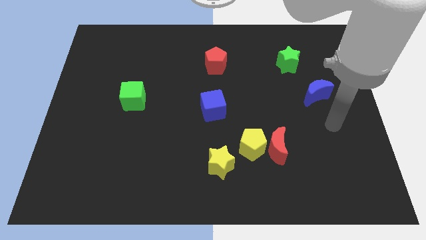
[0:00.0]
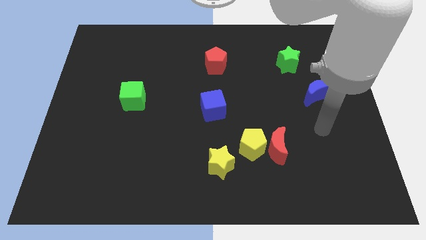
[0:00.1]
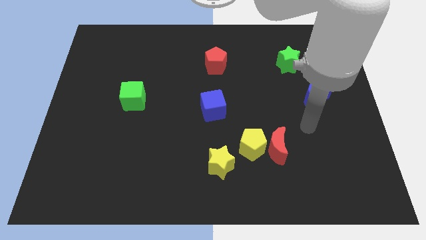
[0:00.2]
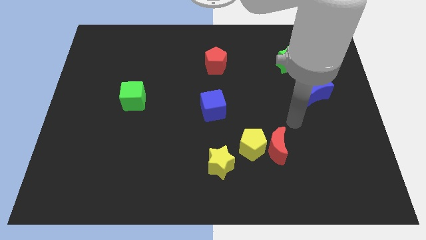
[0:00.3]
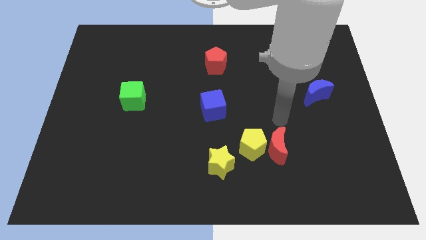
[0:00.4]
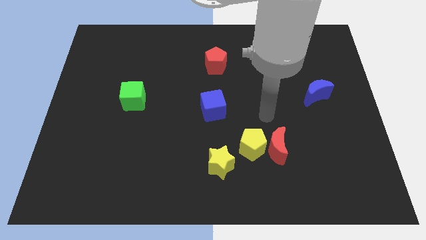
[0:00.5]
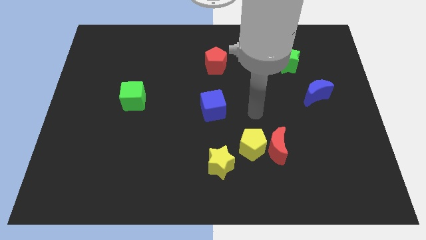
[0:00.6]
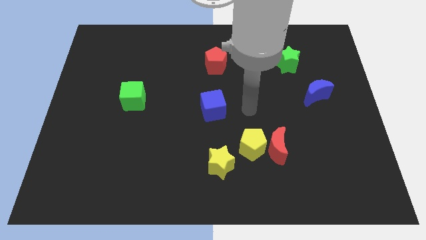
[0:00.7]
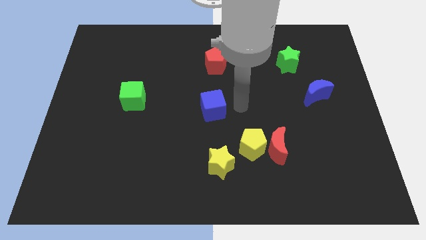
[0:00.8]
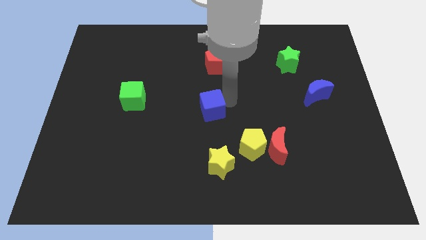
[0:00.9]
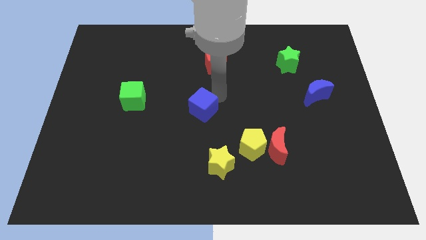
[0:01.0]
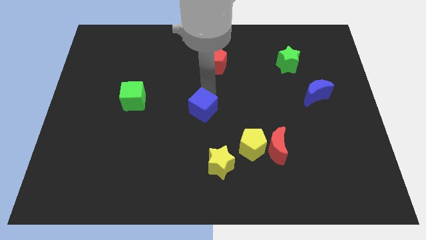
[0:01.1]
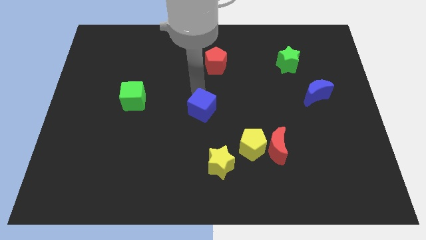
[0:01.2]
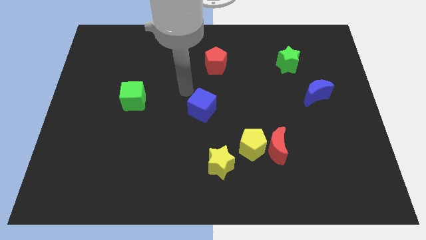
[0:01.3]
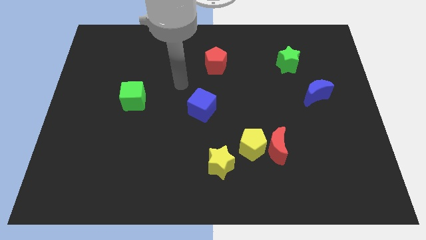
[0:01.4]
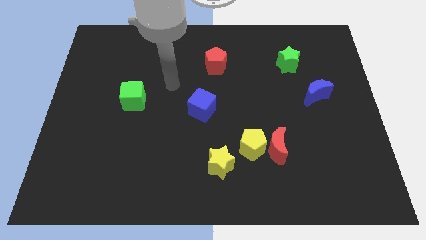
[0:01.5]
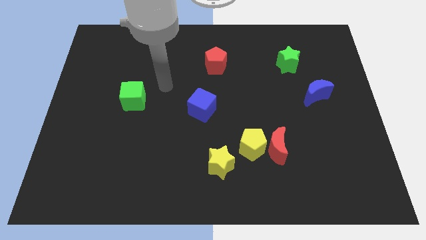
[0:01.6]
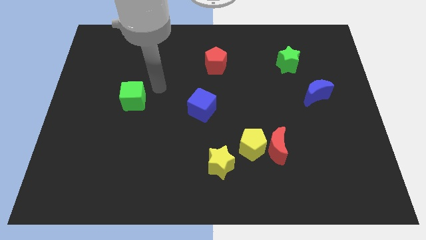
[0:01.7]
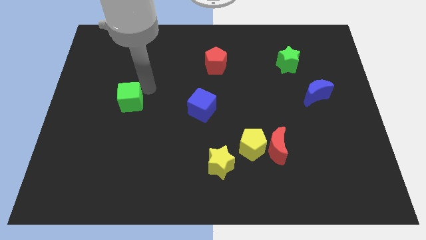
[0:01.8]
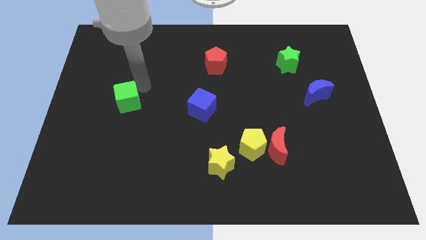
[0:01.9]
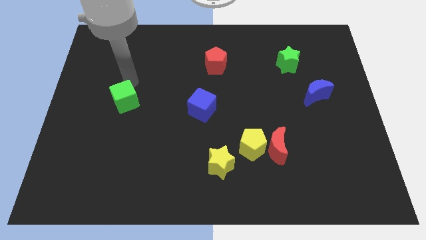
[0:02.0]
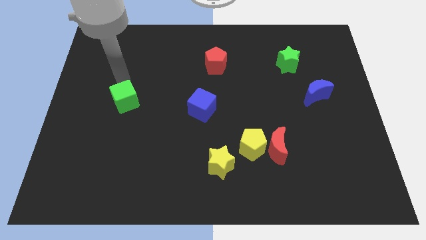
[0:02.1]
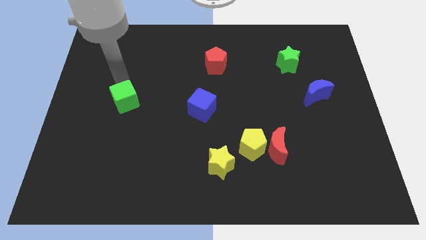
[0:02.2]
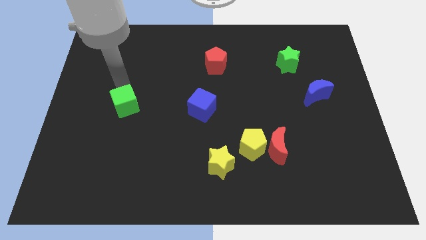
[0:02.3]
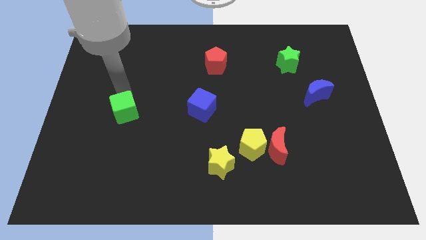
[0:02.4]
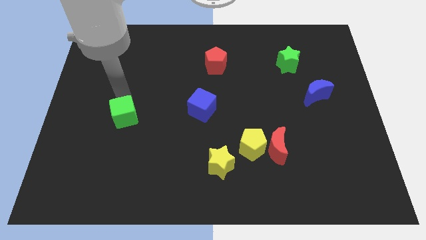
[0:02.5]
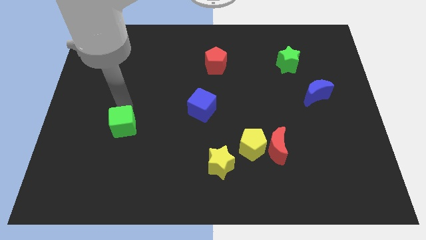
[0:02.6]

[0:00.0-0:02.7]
slide the green cube down somewhat

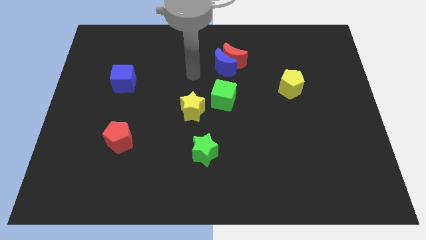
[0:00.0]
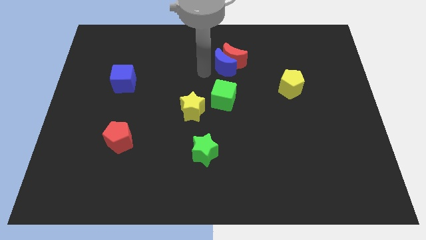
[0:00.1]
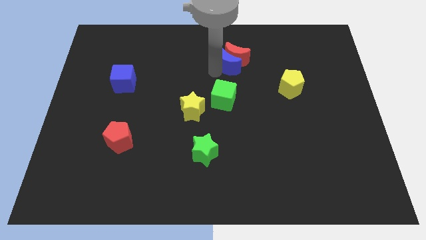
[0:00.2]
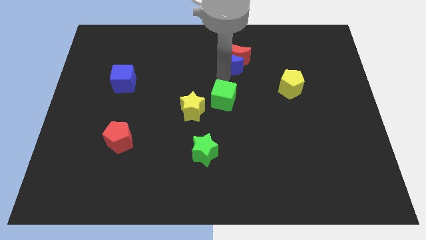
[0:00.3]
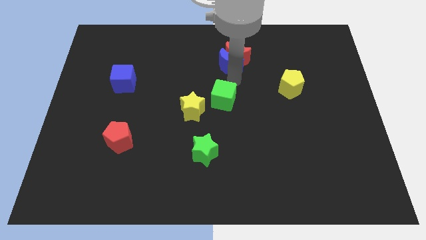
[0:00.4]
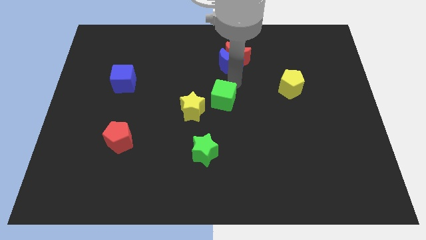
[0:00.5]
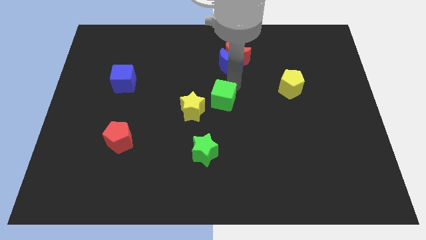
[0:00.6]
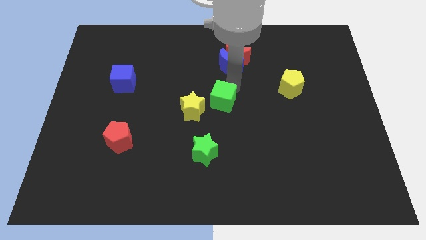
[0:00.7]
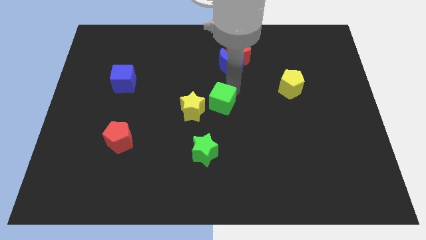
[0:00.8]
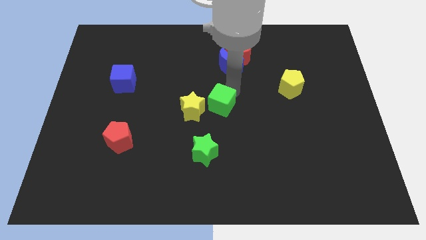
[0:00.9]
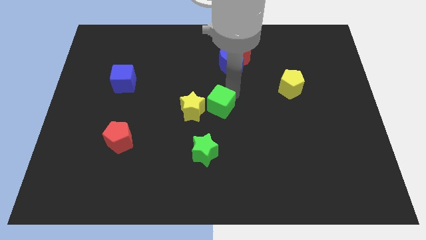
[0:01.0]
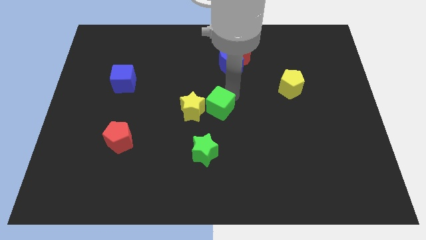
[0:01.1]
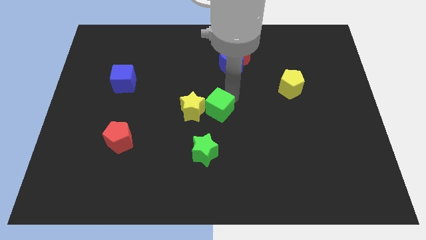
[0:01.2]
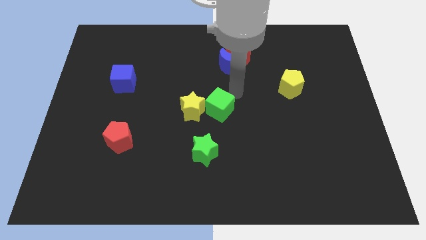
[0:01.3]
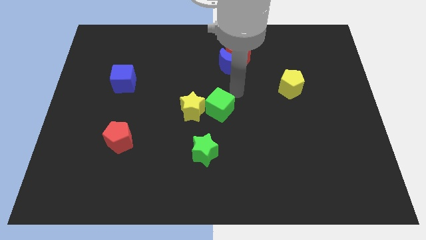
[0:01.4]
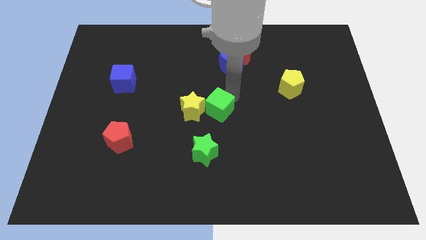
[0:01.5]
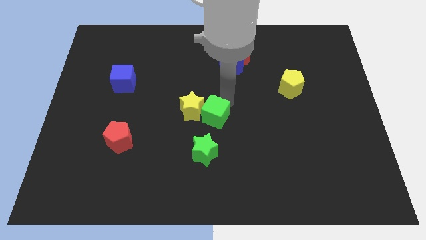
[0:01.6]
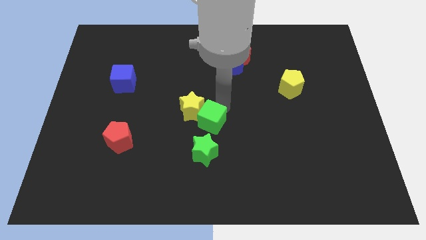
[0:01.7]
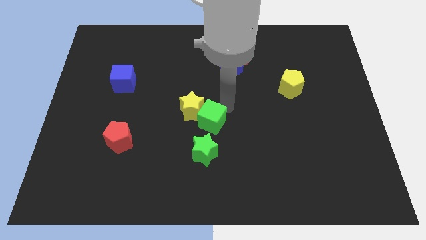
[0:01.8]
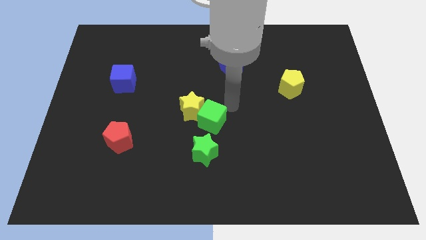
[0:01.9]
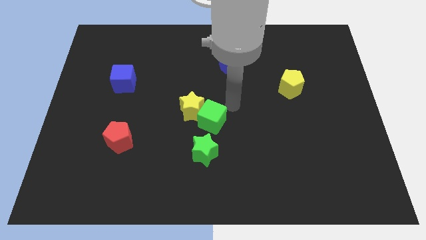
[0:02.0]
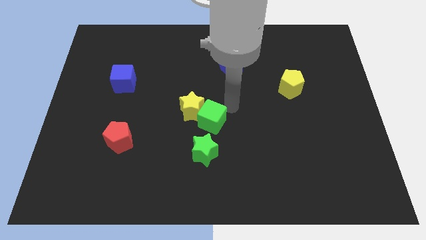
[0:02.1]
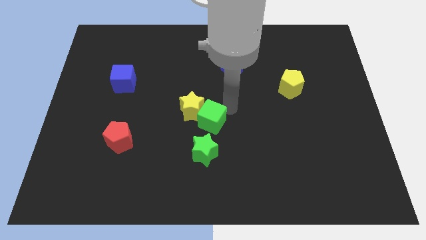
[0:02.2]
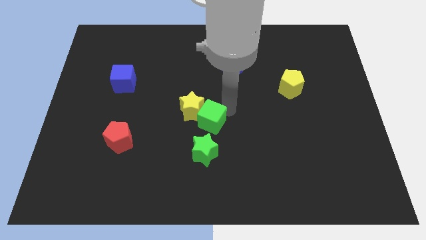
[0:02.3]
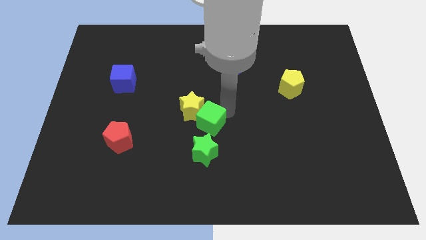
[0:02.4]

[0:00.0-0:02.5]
slightly slide the green cube down and to the left diagonally

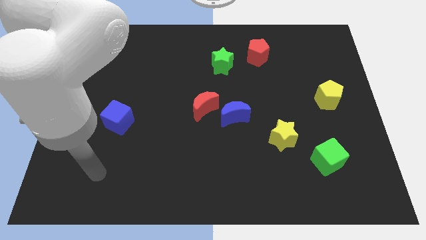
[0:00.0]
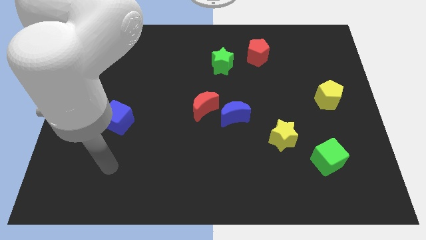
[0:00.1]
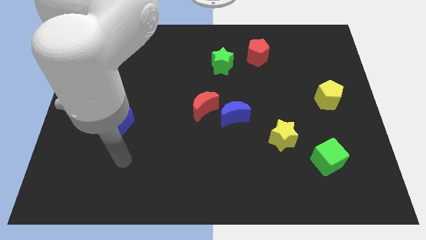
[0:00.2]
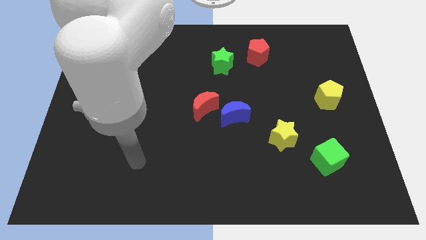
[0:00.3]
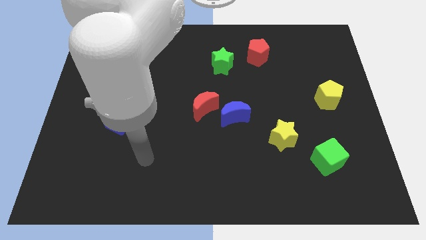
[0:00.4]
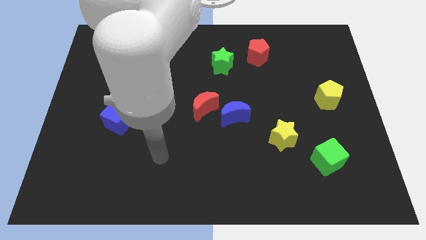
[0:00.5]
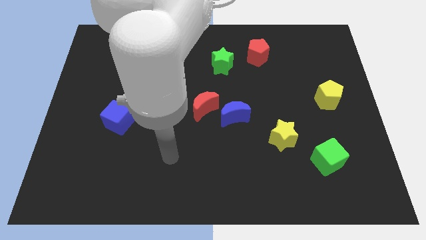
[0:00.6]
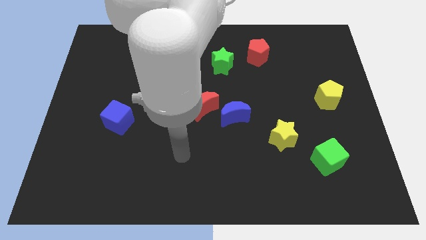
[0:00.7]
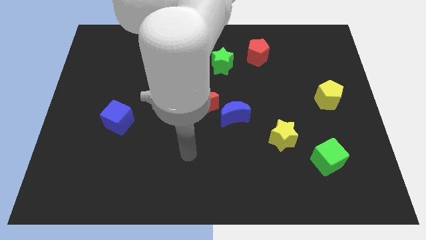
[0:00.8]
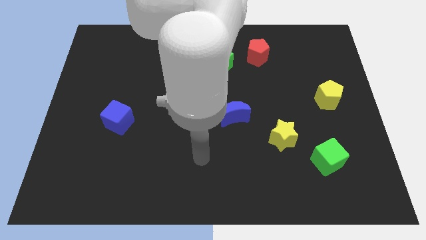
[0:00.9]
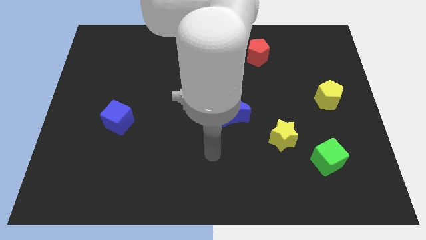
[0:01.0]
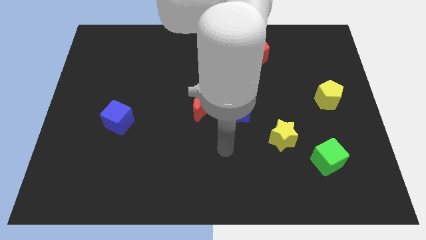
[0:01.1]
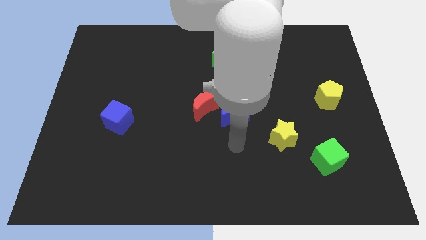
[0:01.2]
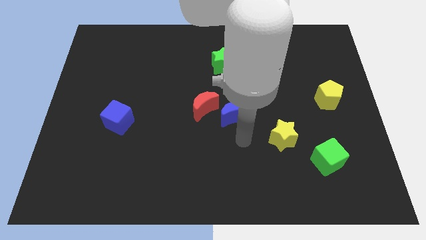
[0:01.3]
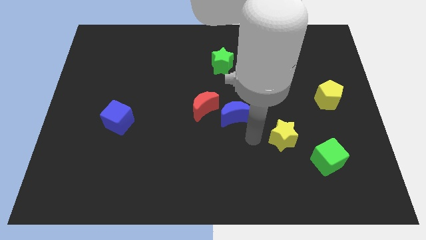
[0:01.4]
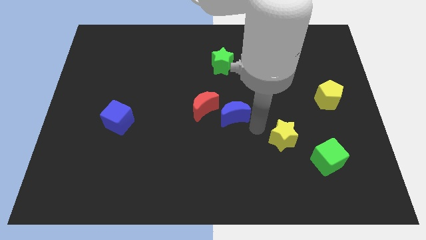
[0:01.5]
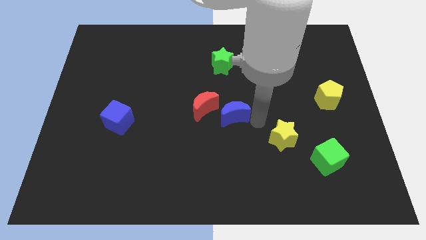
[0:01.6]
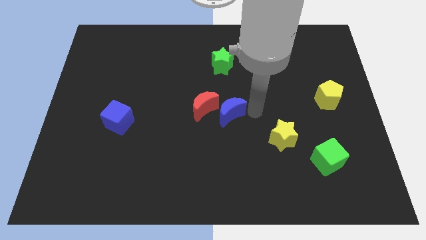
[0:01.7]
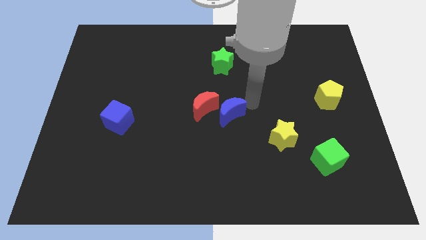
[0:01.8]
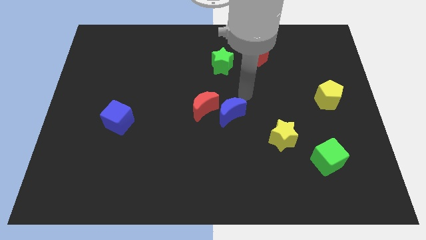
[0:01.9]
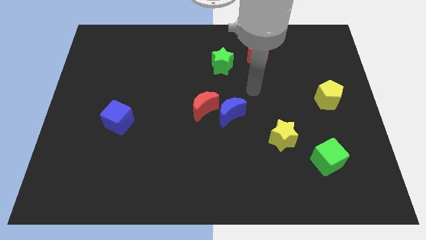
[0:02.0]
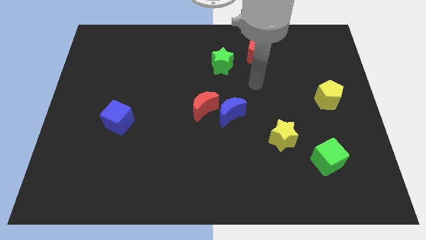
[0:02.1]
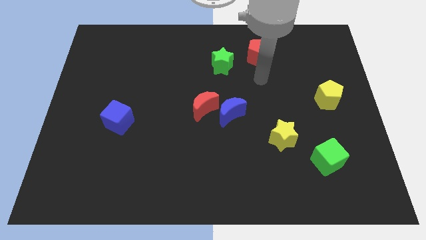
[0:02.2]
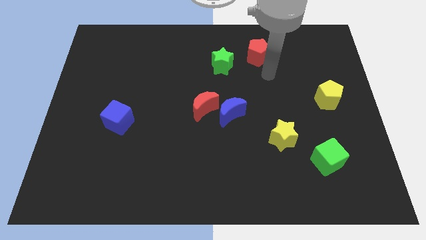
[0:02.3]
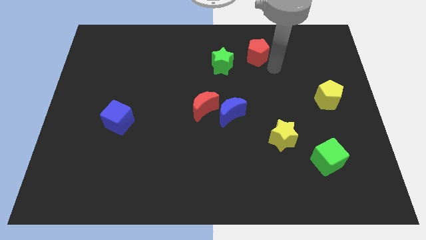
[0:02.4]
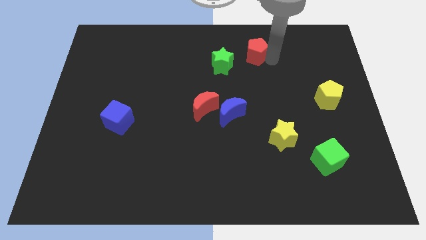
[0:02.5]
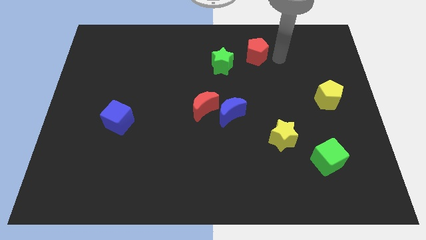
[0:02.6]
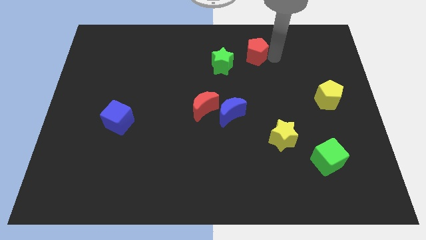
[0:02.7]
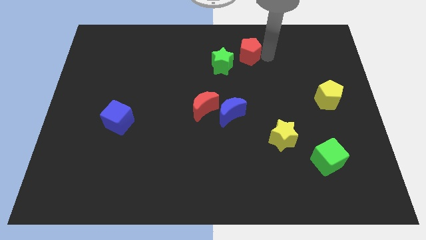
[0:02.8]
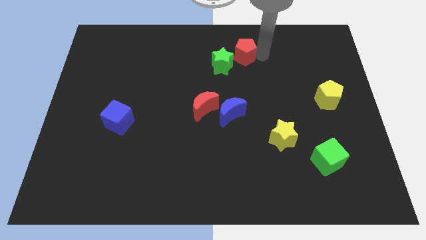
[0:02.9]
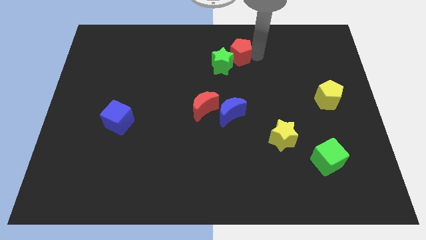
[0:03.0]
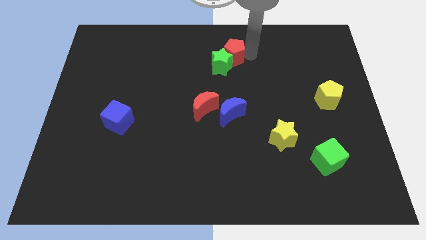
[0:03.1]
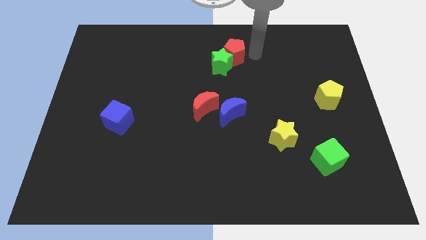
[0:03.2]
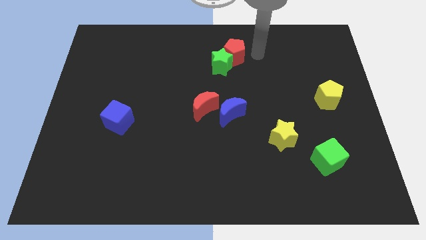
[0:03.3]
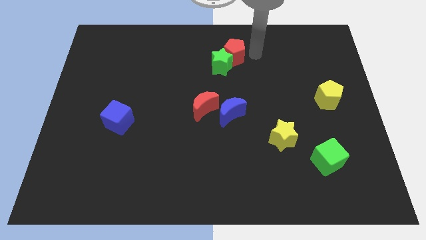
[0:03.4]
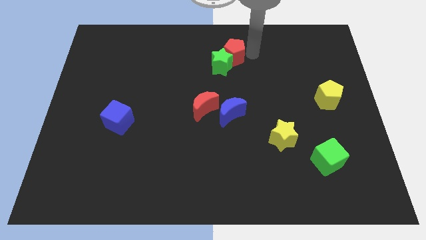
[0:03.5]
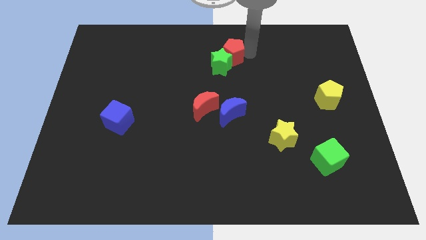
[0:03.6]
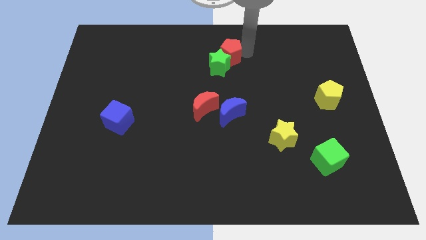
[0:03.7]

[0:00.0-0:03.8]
slightly slide the red pentagon to the left
